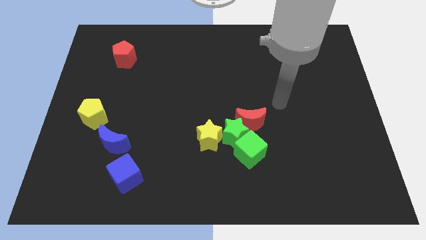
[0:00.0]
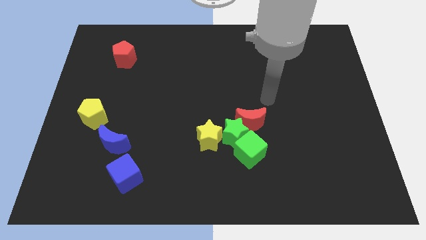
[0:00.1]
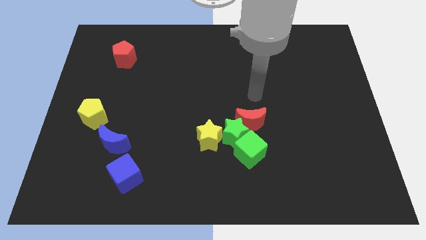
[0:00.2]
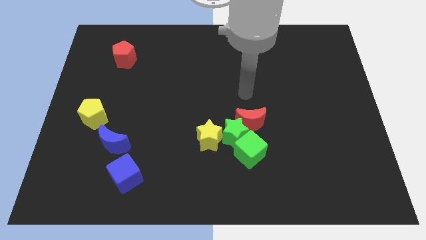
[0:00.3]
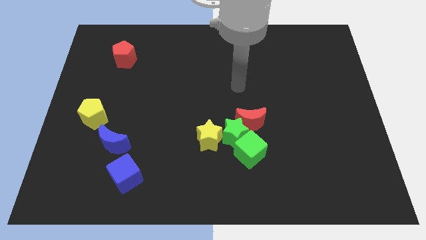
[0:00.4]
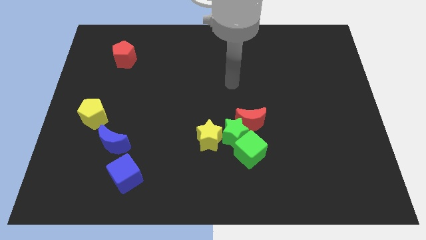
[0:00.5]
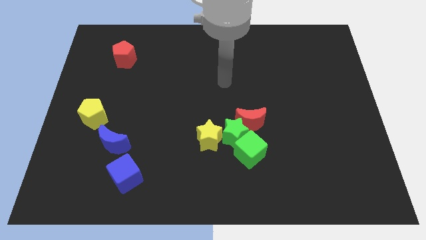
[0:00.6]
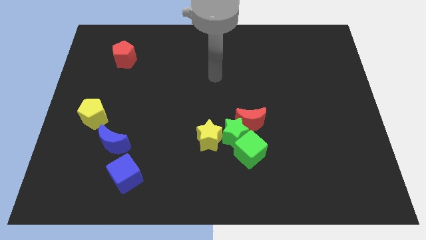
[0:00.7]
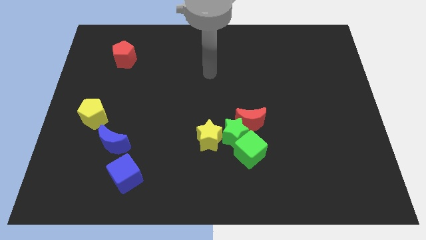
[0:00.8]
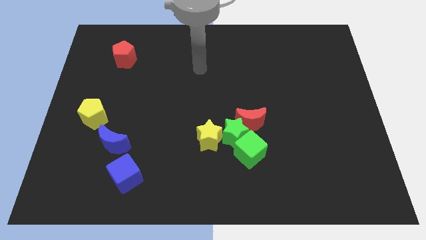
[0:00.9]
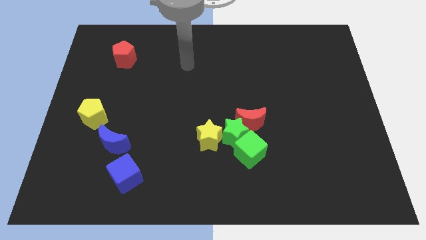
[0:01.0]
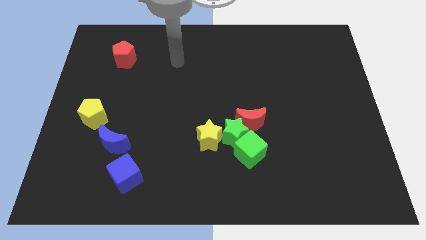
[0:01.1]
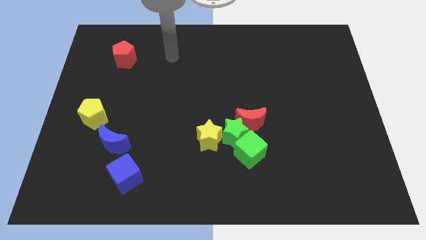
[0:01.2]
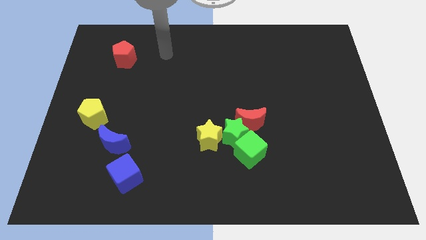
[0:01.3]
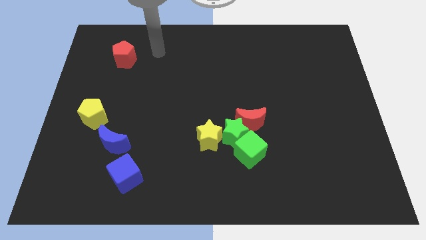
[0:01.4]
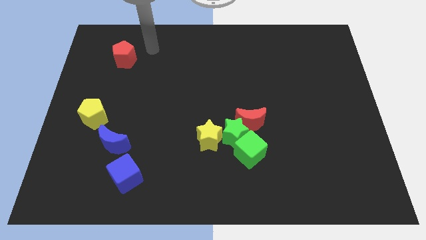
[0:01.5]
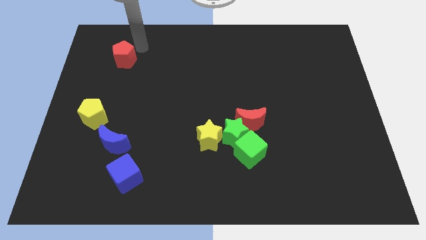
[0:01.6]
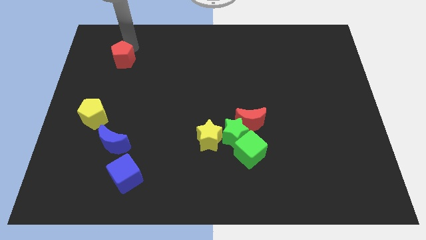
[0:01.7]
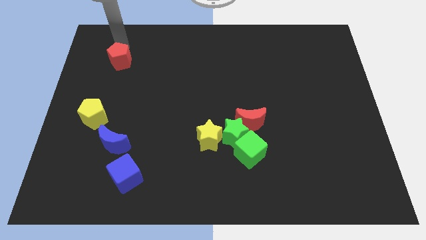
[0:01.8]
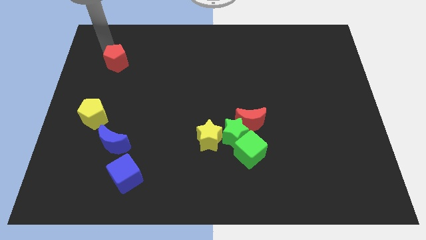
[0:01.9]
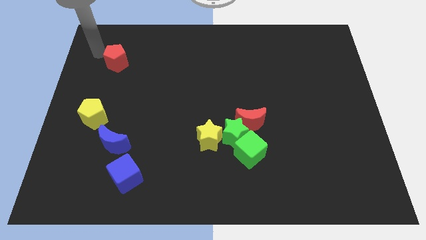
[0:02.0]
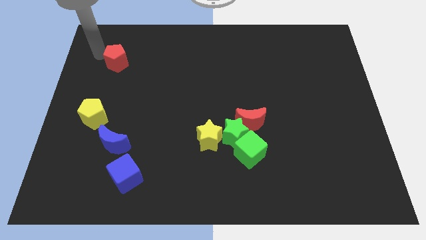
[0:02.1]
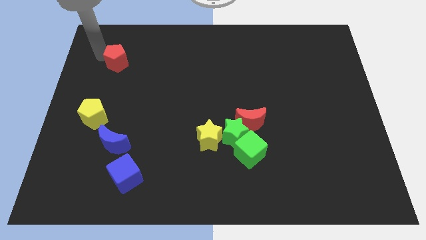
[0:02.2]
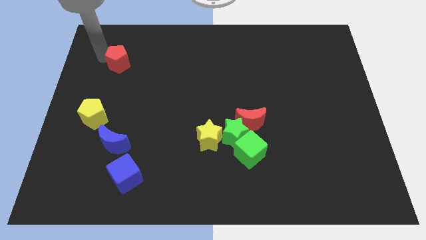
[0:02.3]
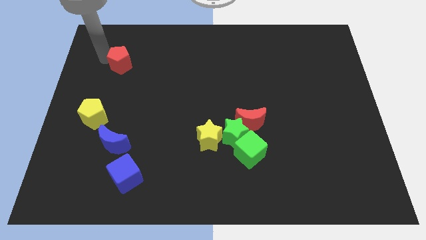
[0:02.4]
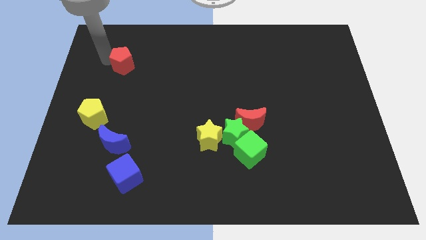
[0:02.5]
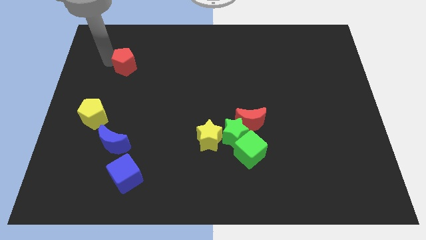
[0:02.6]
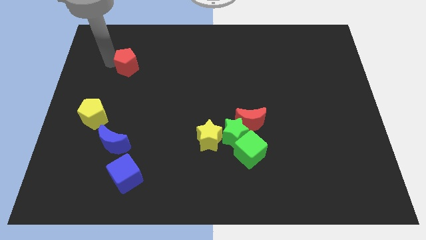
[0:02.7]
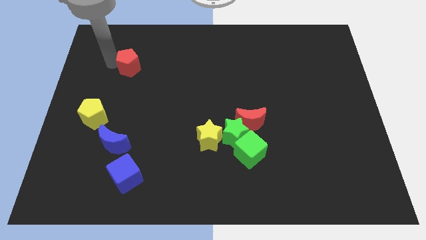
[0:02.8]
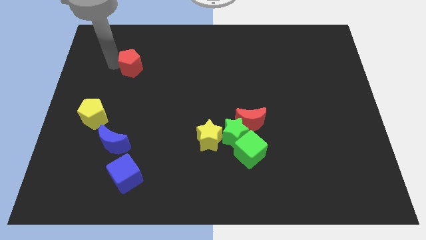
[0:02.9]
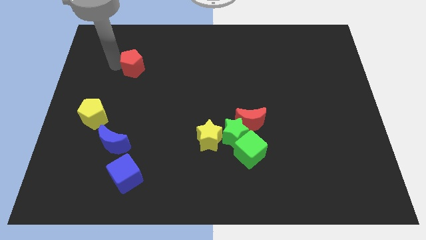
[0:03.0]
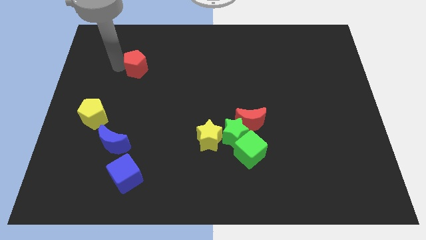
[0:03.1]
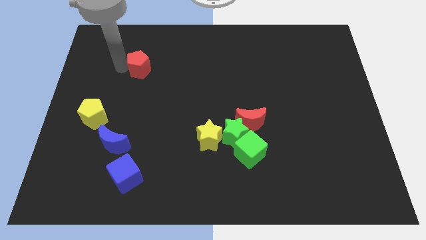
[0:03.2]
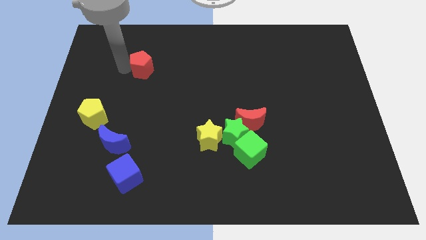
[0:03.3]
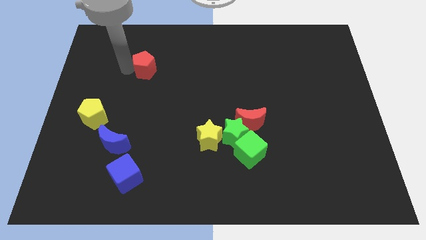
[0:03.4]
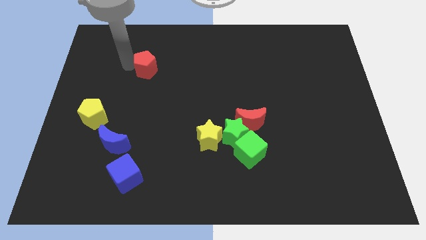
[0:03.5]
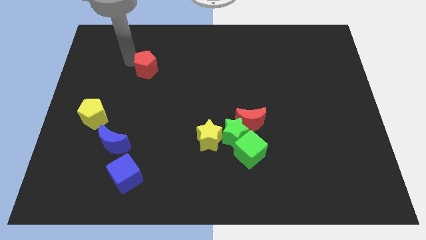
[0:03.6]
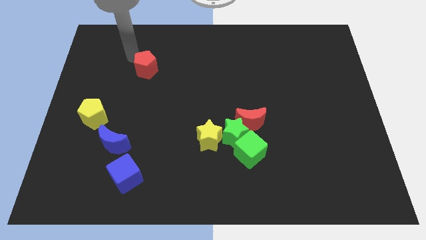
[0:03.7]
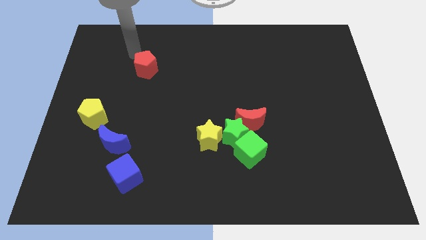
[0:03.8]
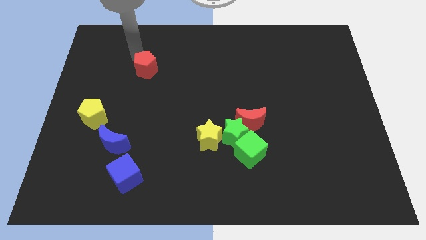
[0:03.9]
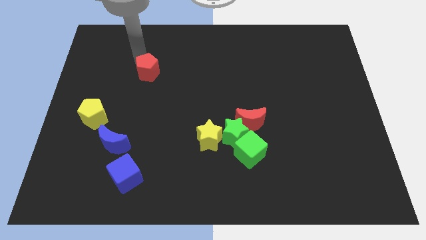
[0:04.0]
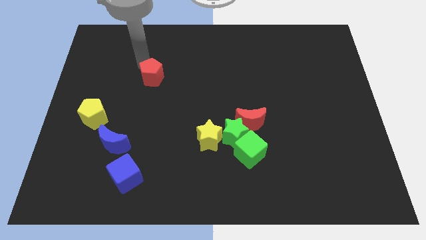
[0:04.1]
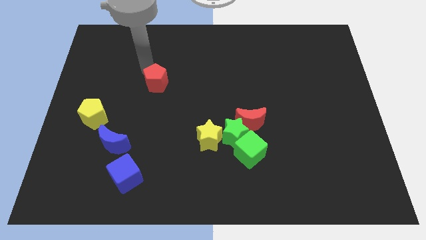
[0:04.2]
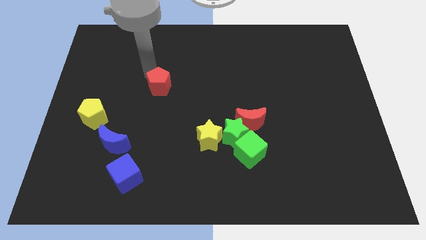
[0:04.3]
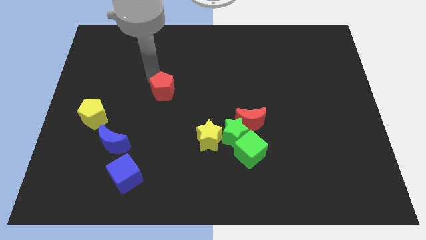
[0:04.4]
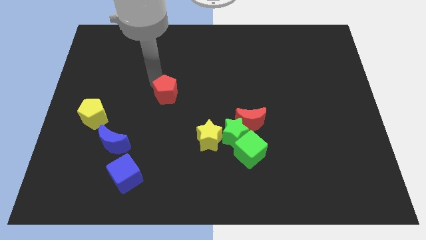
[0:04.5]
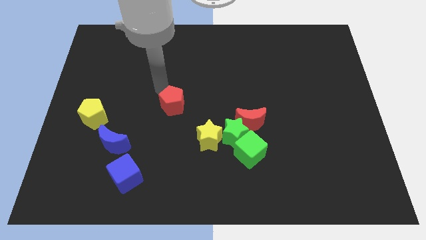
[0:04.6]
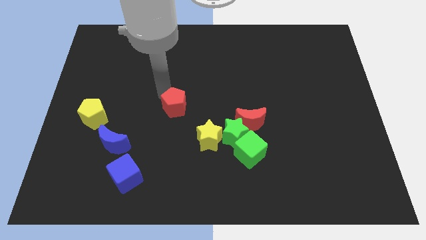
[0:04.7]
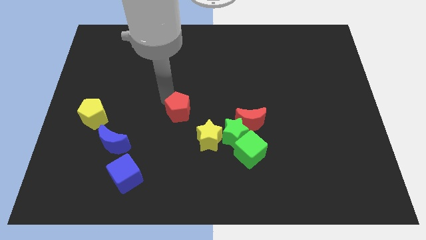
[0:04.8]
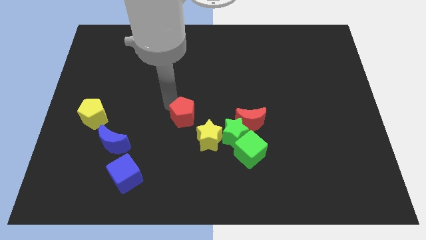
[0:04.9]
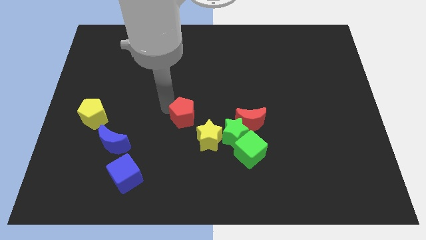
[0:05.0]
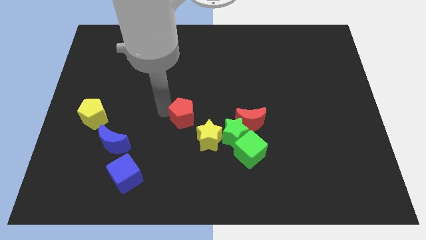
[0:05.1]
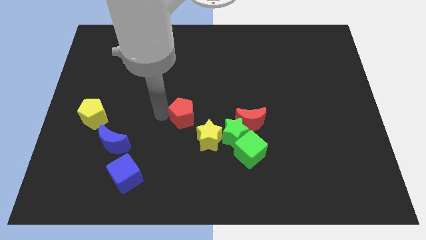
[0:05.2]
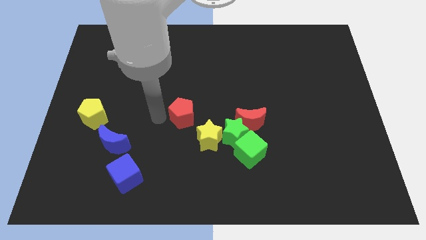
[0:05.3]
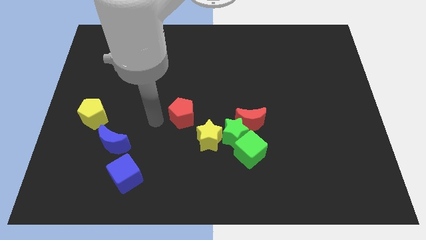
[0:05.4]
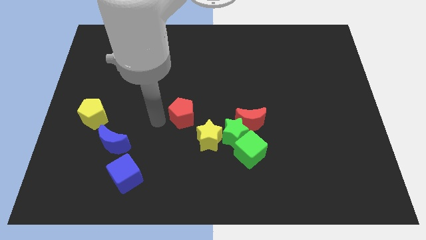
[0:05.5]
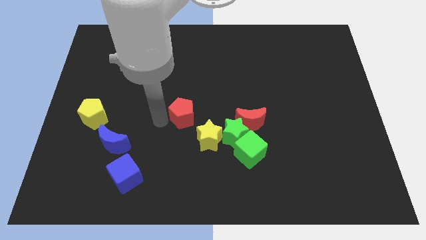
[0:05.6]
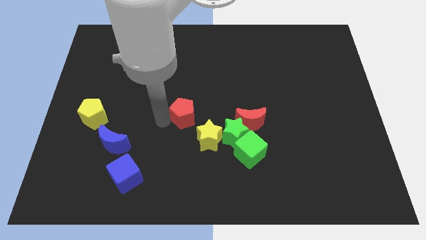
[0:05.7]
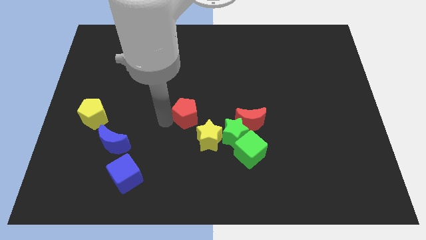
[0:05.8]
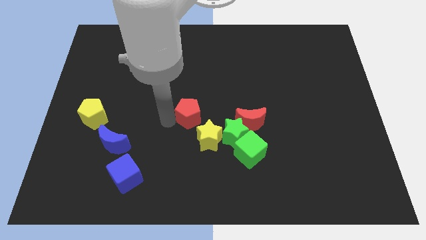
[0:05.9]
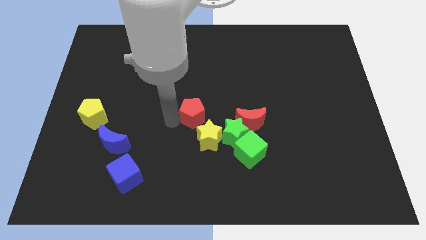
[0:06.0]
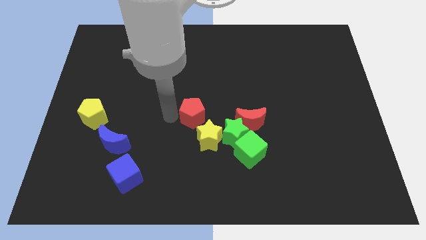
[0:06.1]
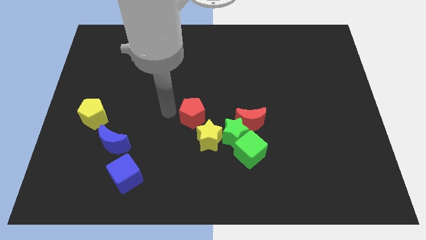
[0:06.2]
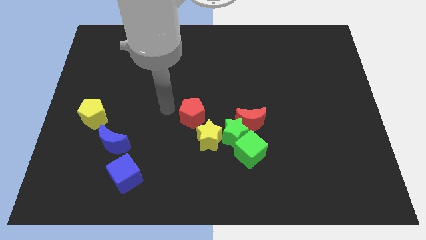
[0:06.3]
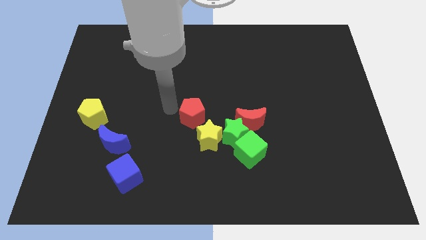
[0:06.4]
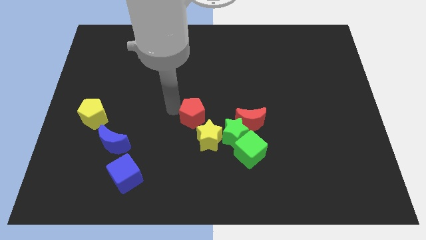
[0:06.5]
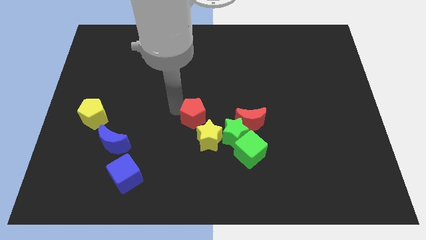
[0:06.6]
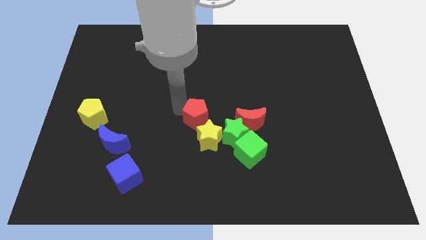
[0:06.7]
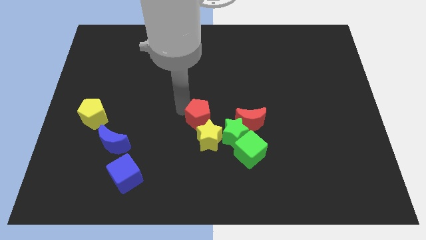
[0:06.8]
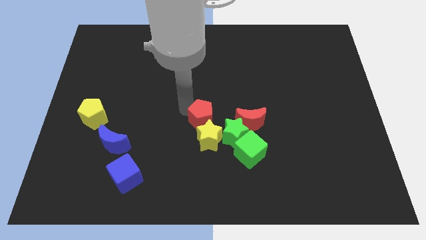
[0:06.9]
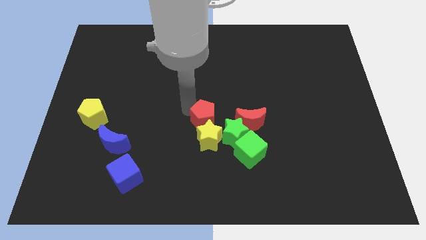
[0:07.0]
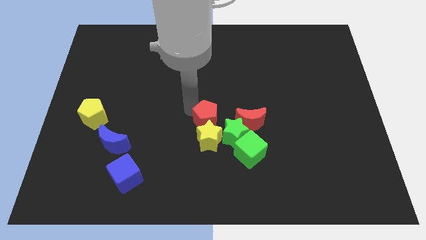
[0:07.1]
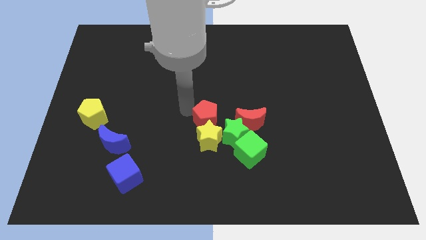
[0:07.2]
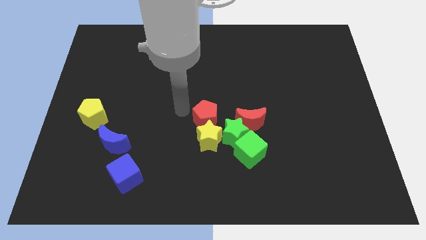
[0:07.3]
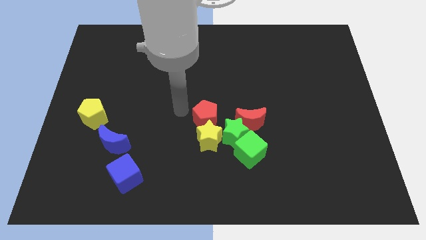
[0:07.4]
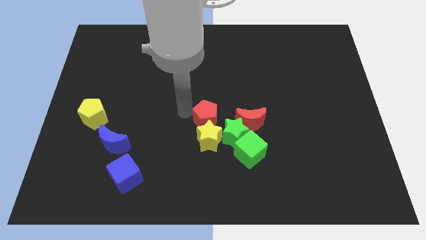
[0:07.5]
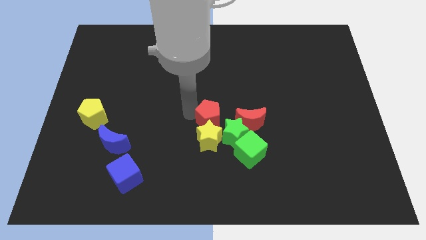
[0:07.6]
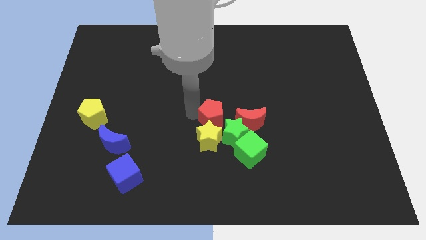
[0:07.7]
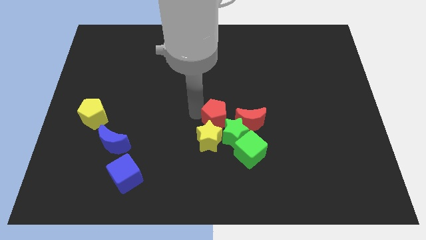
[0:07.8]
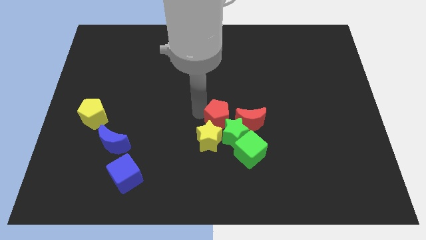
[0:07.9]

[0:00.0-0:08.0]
put the red pentagon towards the green star

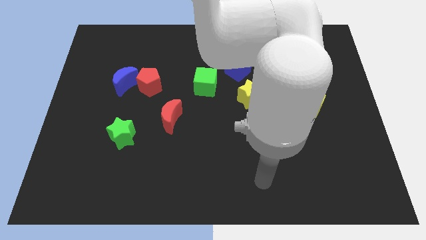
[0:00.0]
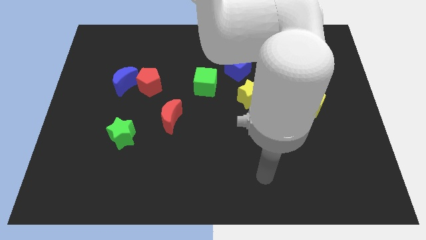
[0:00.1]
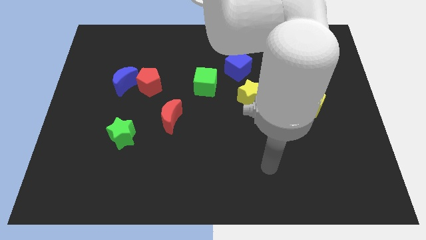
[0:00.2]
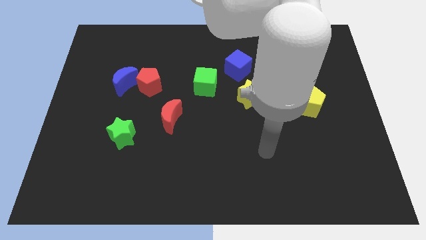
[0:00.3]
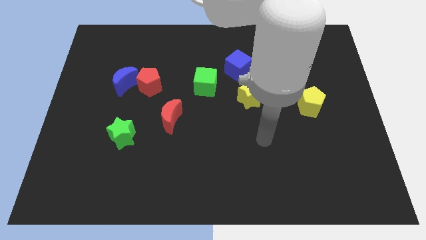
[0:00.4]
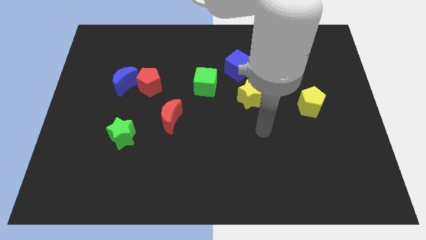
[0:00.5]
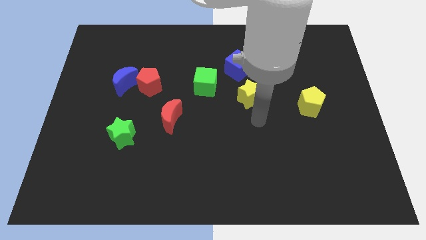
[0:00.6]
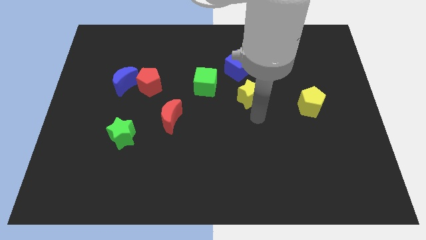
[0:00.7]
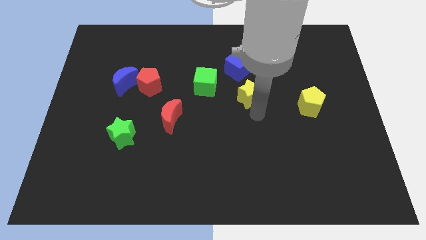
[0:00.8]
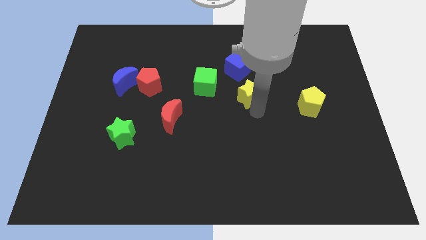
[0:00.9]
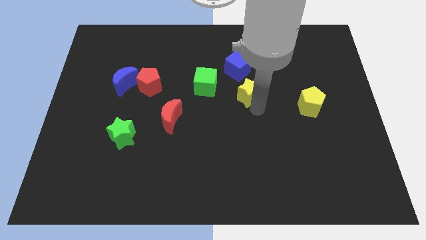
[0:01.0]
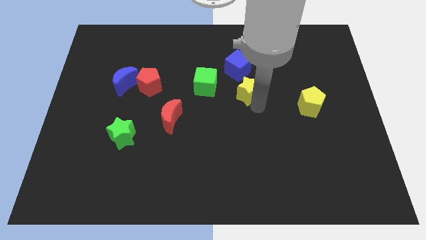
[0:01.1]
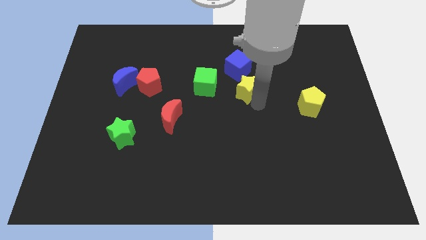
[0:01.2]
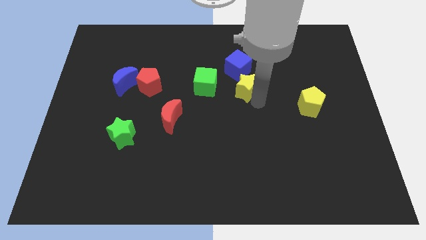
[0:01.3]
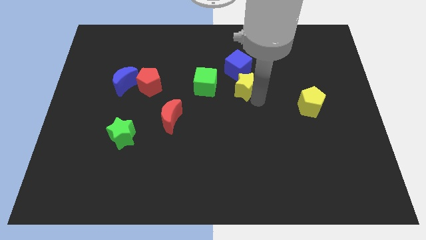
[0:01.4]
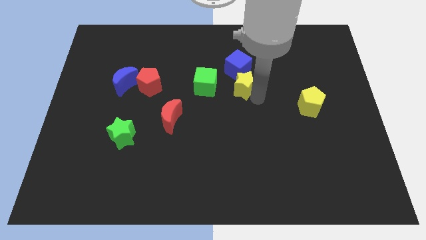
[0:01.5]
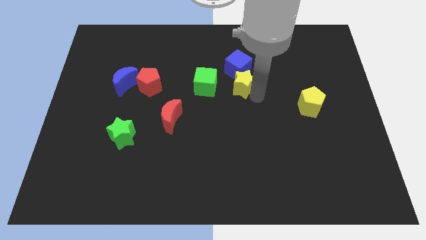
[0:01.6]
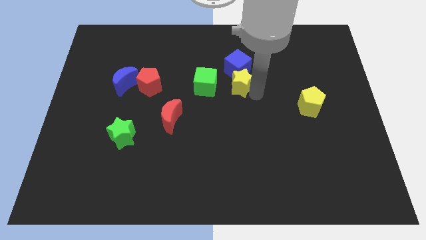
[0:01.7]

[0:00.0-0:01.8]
push the yellow star close to the blue cube
